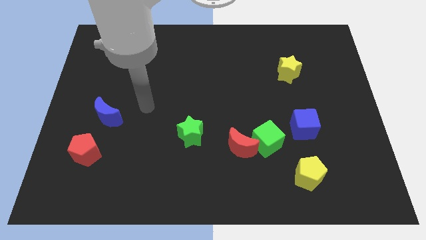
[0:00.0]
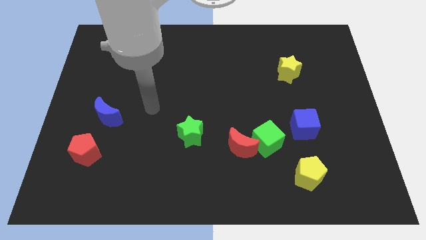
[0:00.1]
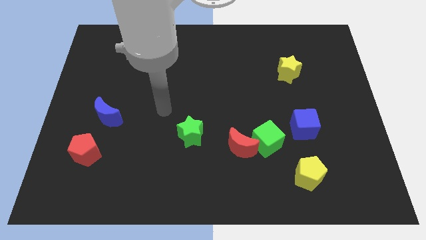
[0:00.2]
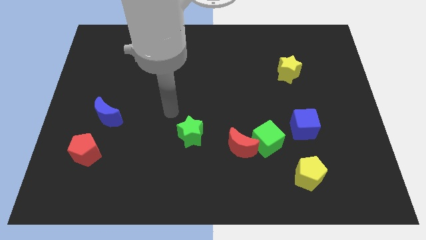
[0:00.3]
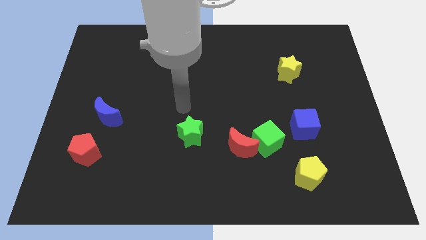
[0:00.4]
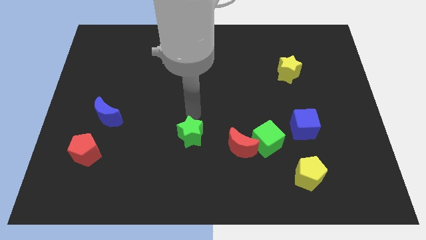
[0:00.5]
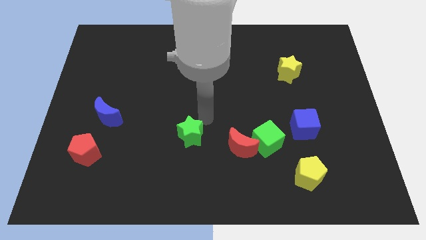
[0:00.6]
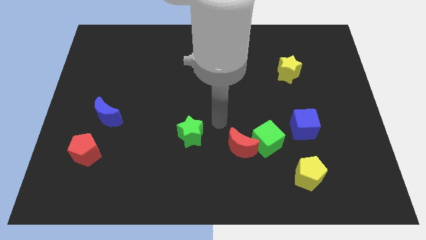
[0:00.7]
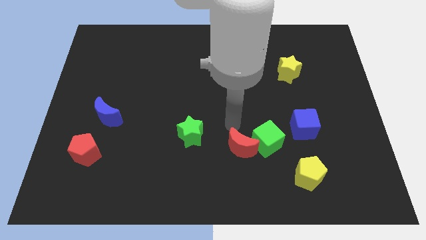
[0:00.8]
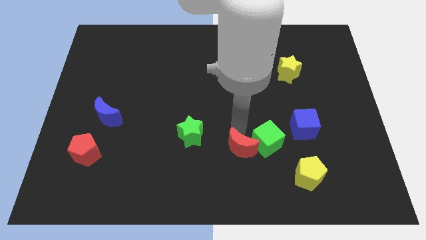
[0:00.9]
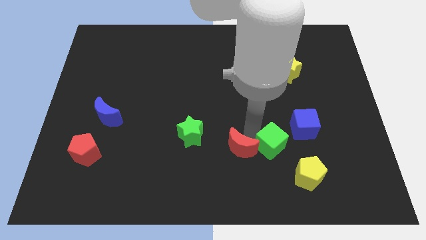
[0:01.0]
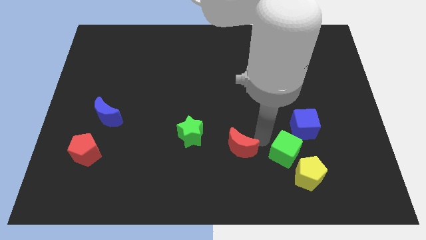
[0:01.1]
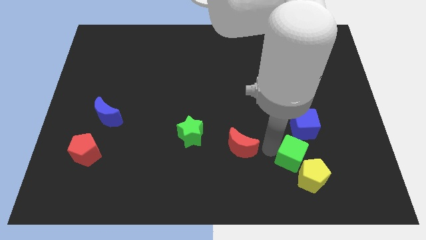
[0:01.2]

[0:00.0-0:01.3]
pull the red moon apart from the green cube

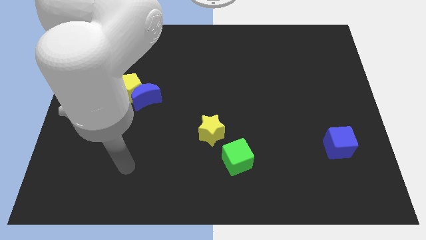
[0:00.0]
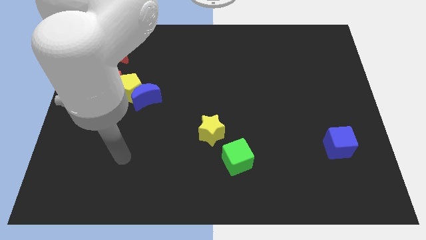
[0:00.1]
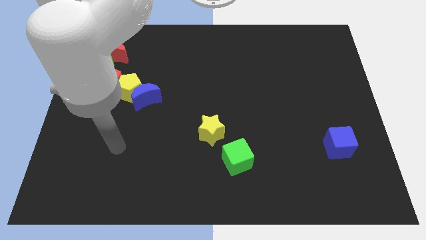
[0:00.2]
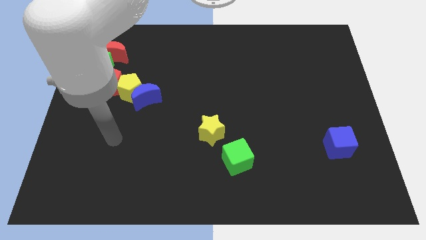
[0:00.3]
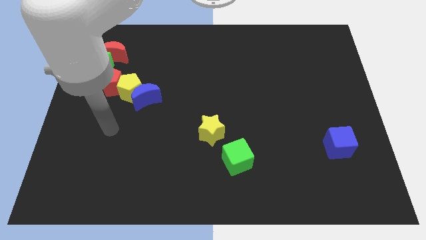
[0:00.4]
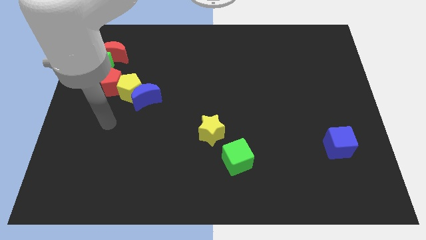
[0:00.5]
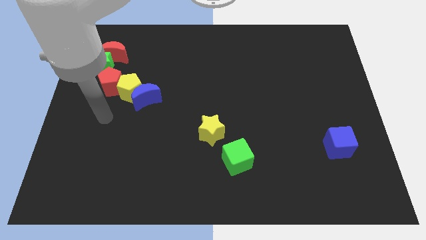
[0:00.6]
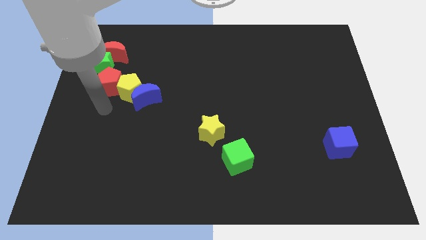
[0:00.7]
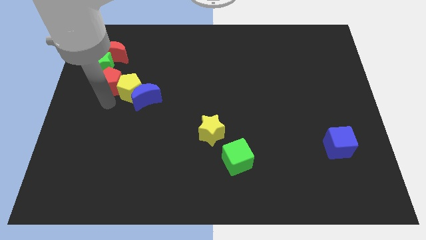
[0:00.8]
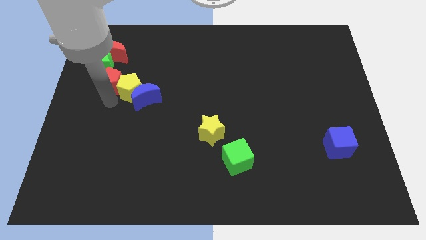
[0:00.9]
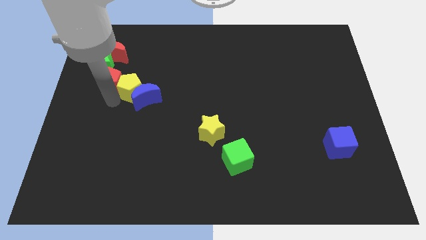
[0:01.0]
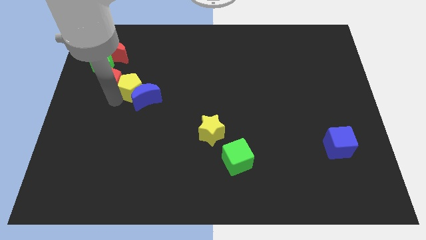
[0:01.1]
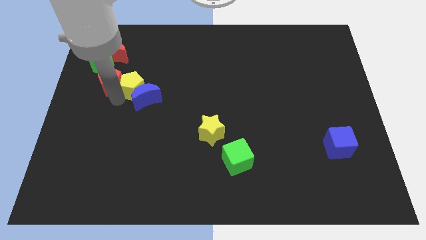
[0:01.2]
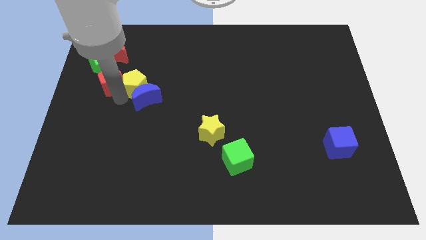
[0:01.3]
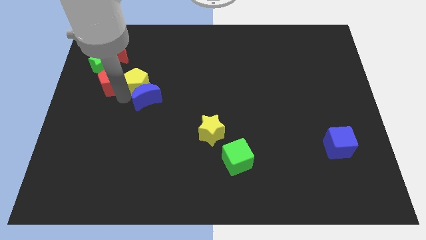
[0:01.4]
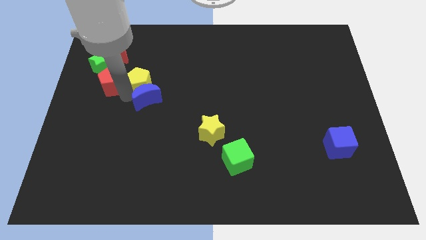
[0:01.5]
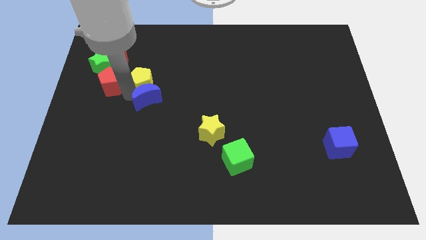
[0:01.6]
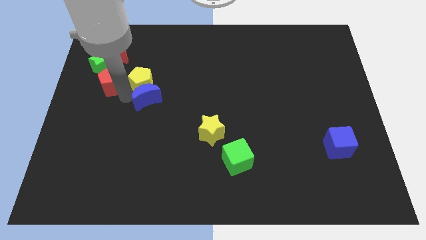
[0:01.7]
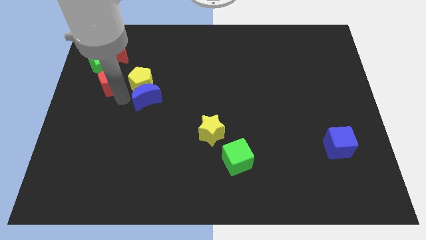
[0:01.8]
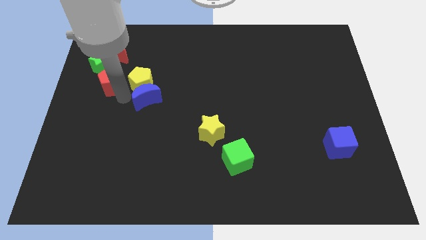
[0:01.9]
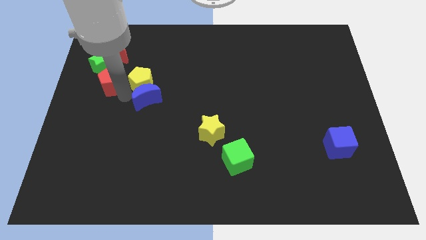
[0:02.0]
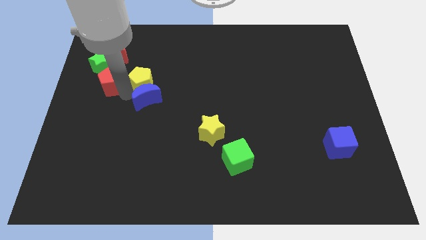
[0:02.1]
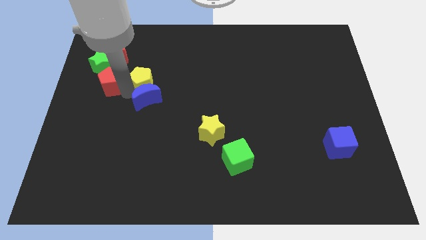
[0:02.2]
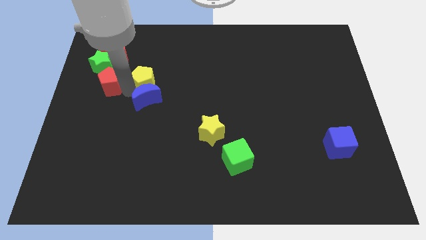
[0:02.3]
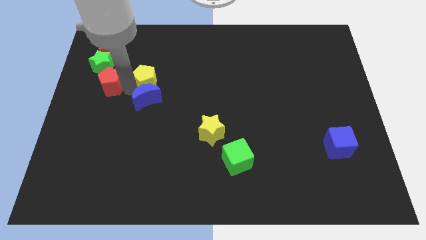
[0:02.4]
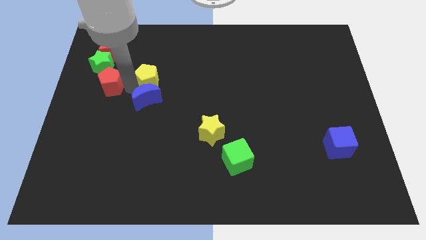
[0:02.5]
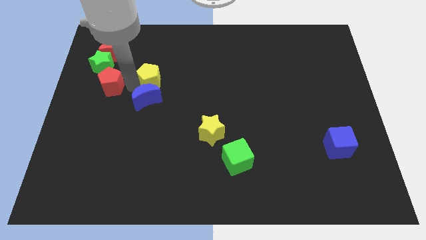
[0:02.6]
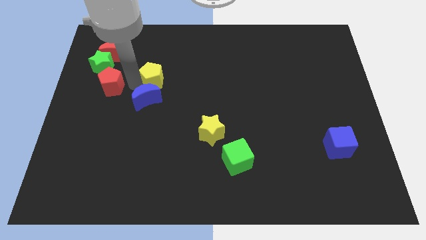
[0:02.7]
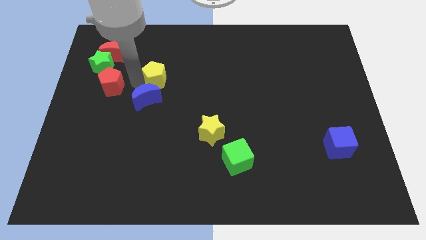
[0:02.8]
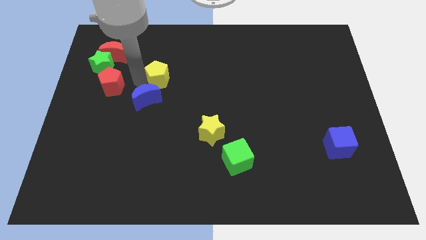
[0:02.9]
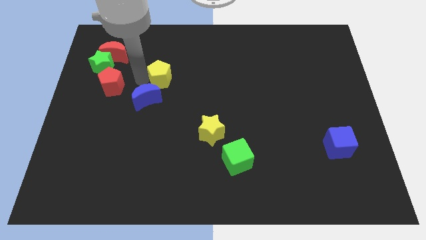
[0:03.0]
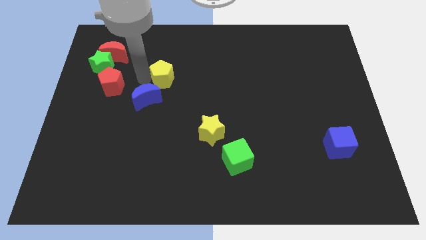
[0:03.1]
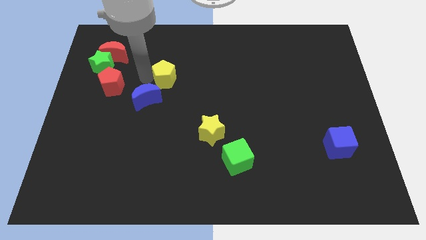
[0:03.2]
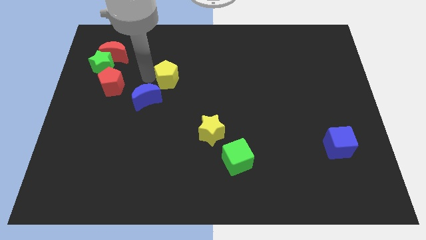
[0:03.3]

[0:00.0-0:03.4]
move the yellow pentagon away from the blue moon and red pentagon

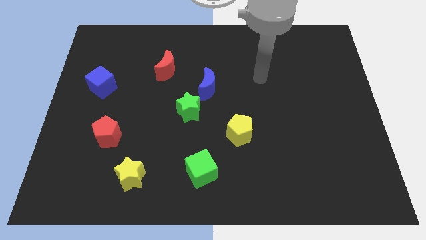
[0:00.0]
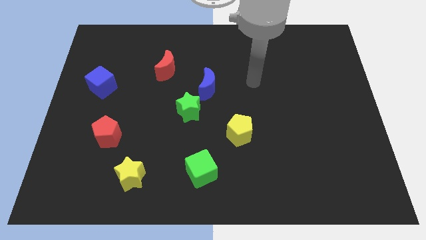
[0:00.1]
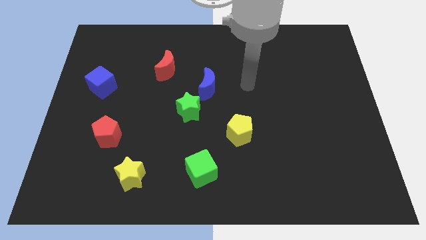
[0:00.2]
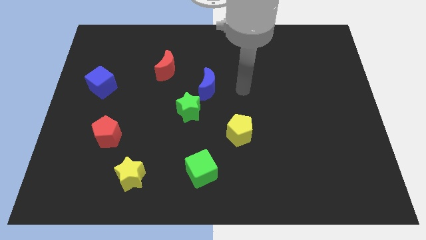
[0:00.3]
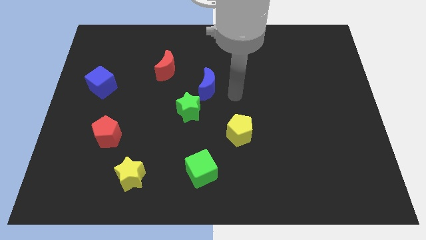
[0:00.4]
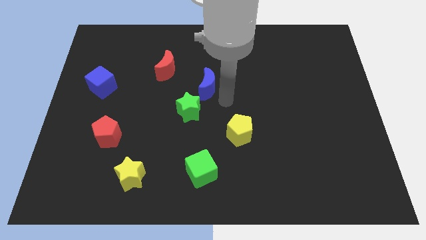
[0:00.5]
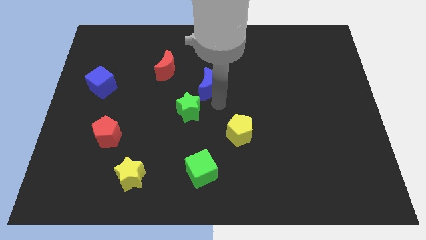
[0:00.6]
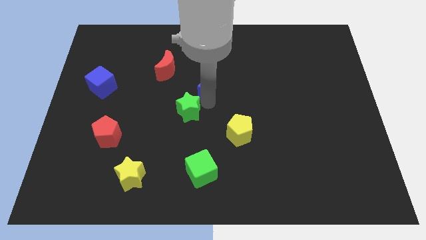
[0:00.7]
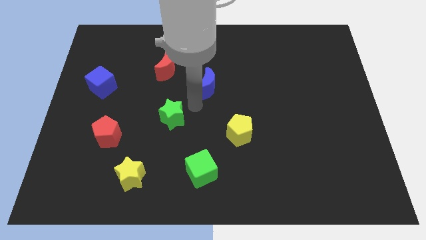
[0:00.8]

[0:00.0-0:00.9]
move the blue moon away from the green star

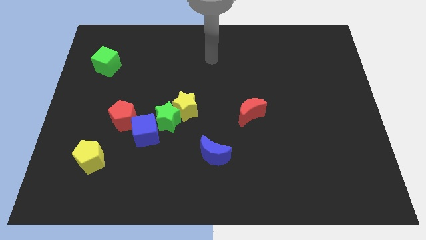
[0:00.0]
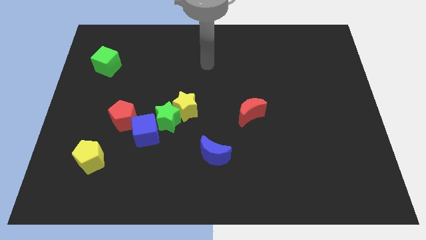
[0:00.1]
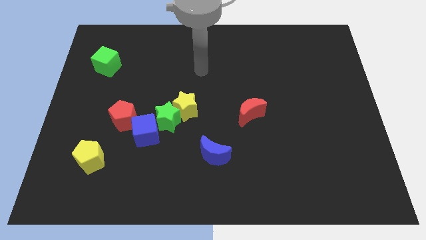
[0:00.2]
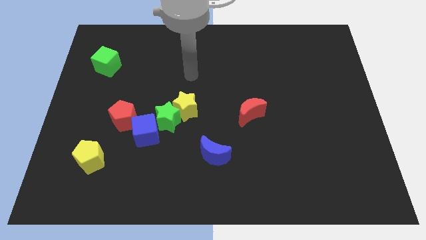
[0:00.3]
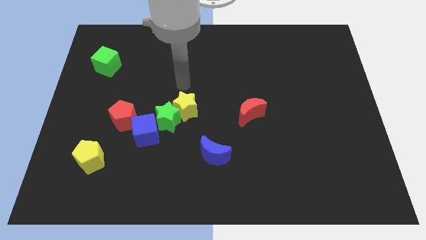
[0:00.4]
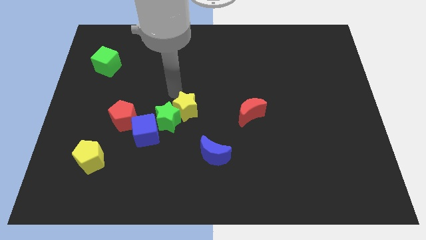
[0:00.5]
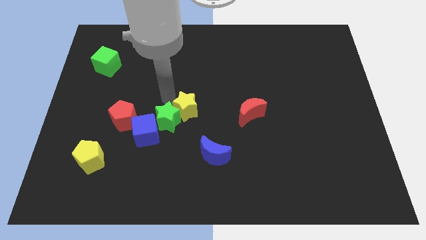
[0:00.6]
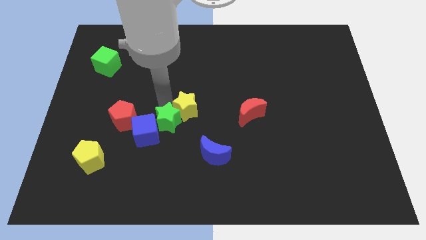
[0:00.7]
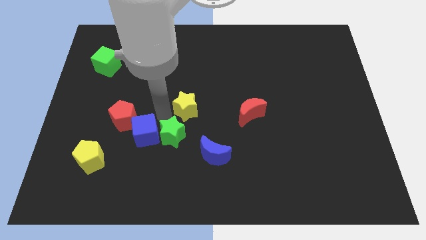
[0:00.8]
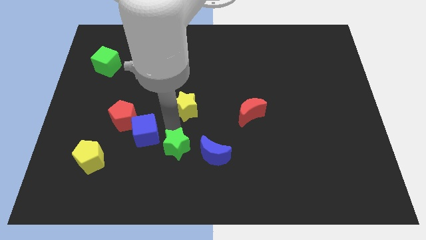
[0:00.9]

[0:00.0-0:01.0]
pull the yellow star apart from the green star

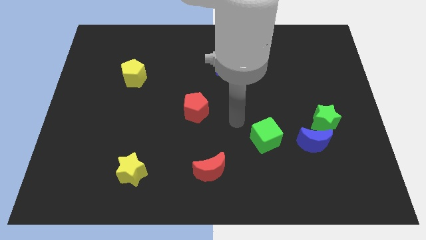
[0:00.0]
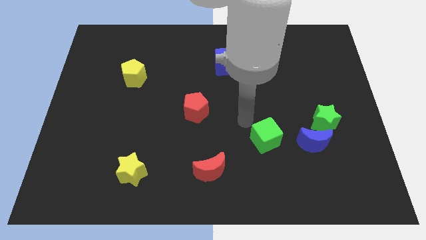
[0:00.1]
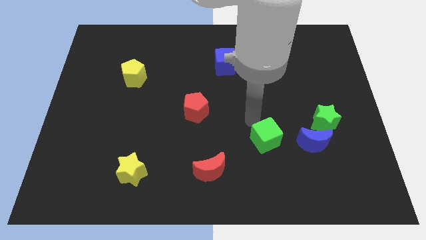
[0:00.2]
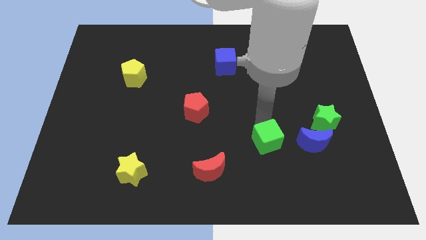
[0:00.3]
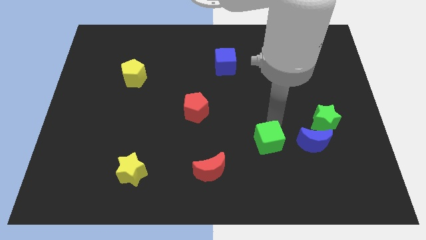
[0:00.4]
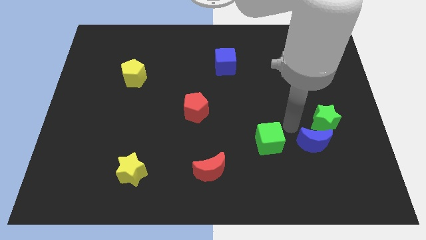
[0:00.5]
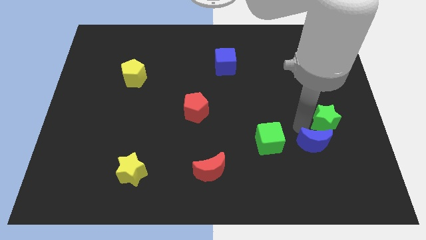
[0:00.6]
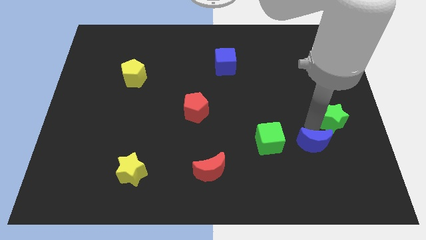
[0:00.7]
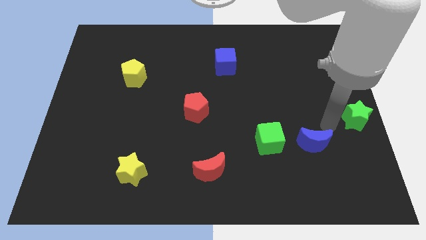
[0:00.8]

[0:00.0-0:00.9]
pull the blue moon apart from the green star

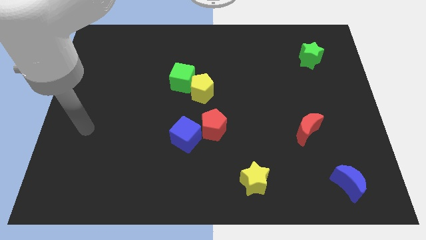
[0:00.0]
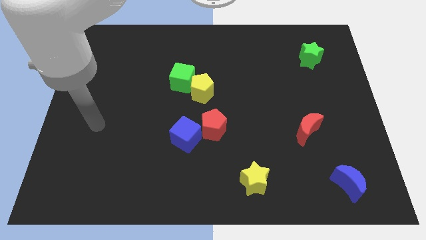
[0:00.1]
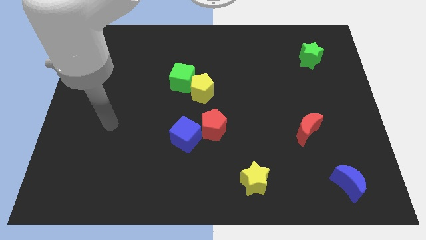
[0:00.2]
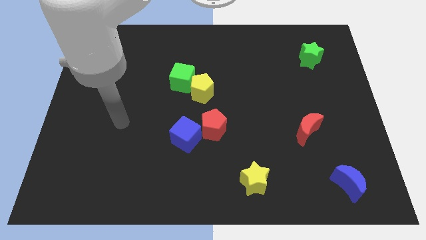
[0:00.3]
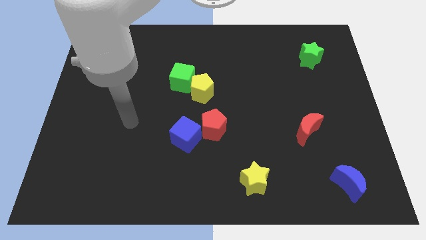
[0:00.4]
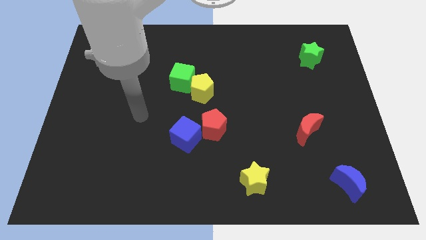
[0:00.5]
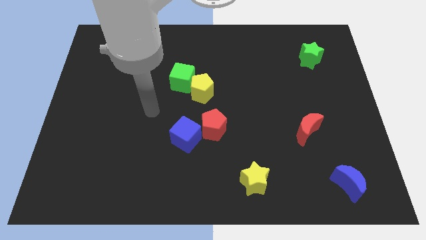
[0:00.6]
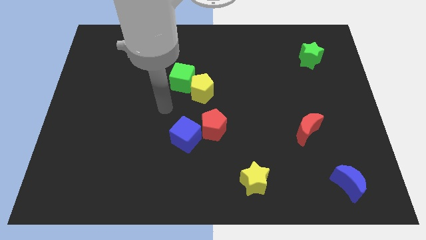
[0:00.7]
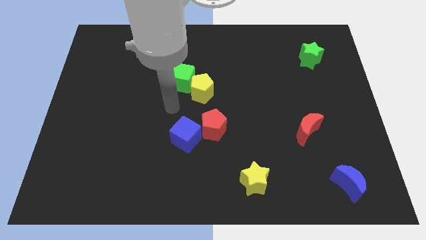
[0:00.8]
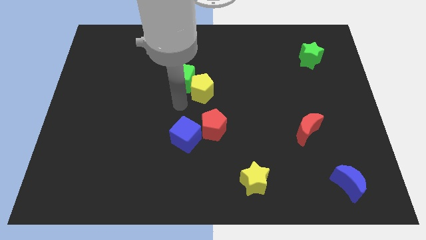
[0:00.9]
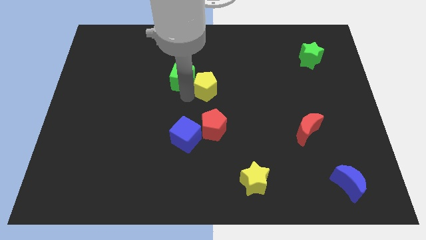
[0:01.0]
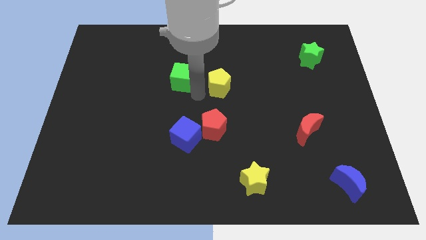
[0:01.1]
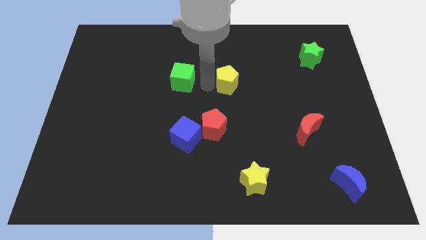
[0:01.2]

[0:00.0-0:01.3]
move the green cube away from the yellow pentagon

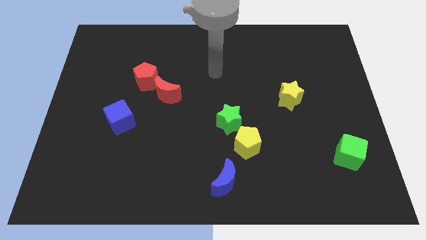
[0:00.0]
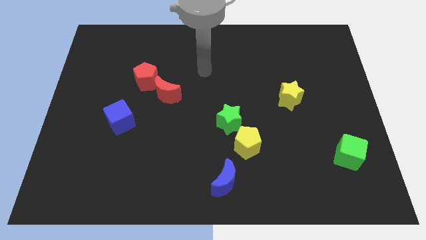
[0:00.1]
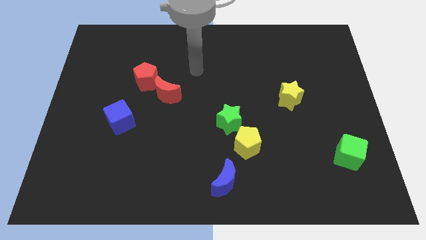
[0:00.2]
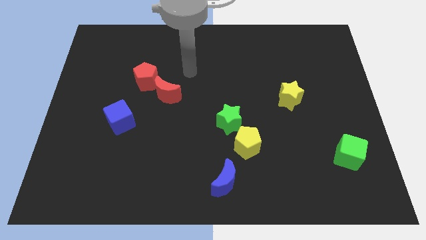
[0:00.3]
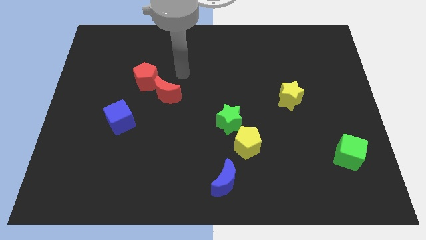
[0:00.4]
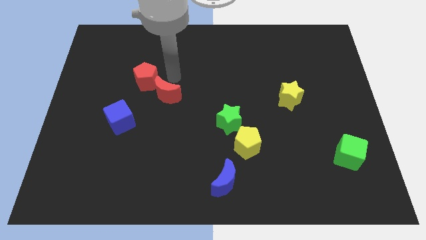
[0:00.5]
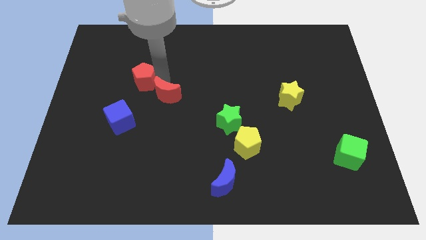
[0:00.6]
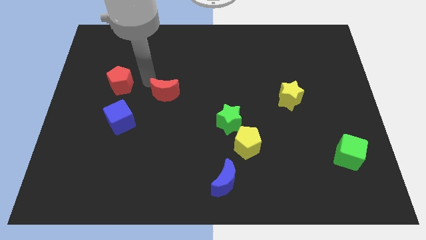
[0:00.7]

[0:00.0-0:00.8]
move the red moon away from the red pentagon
